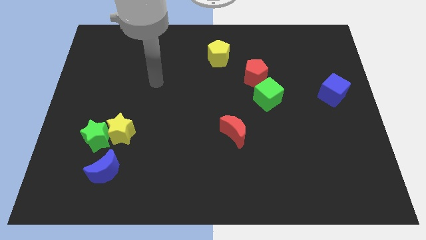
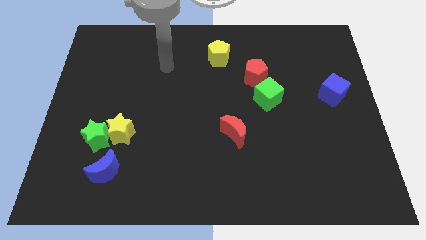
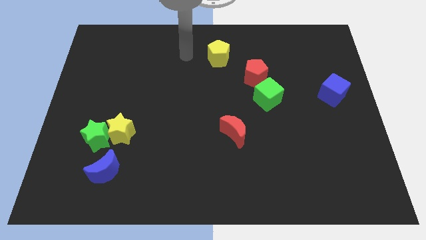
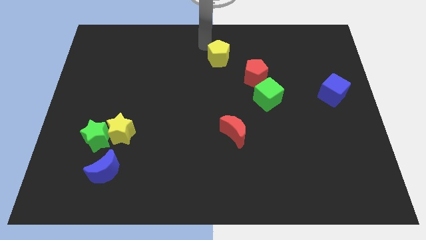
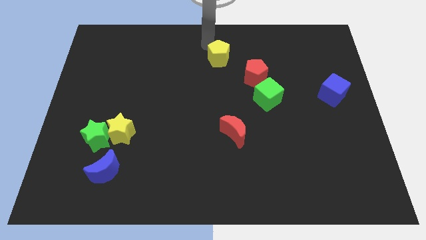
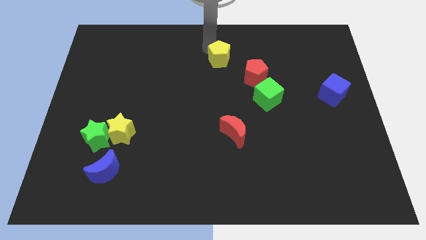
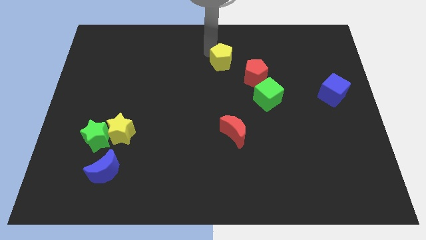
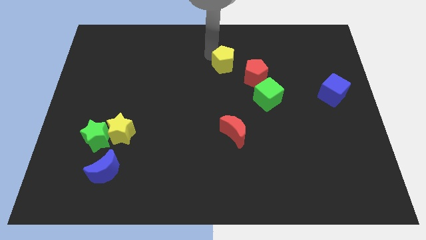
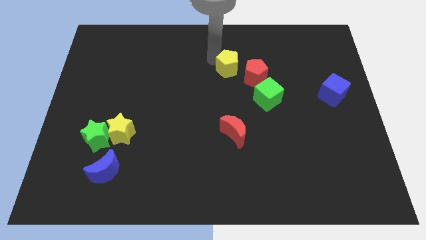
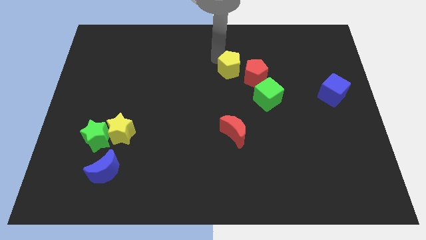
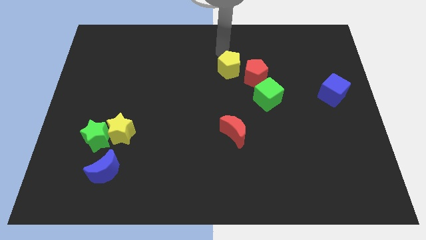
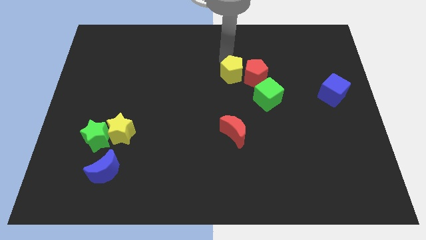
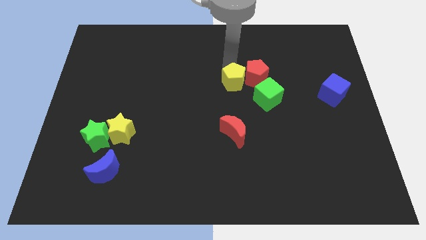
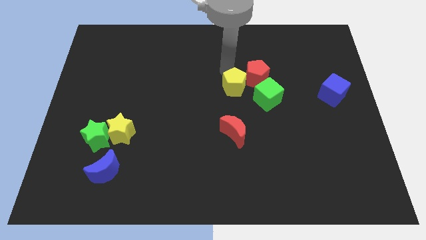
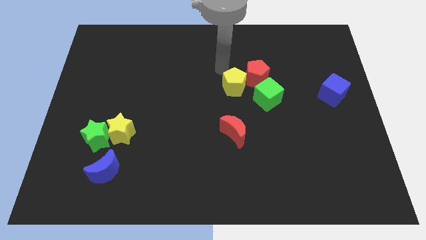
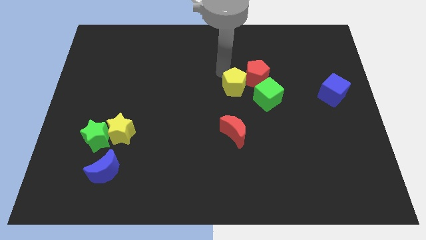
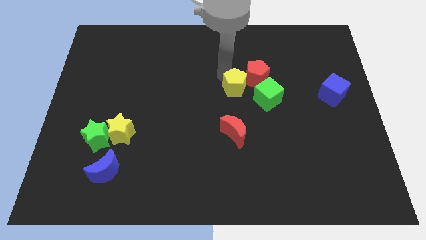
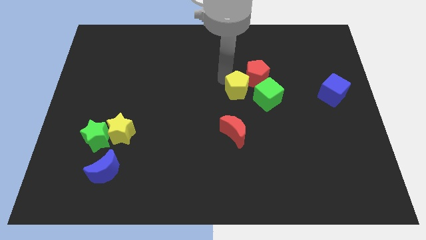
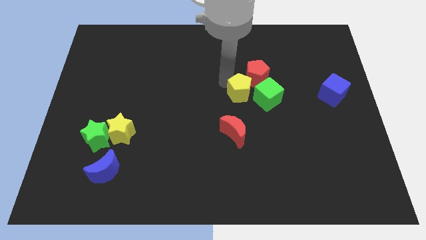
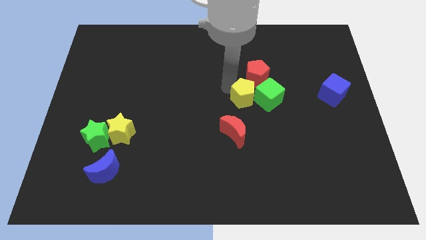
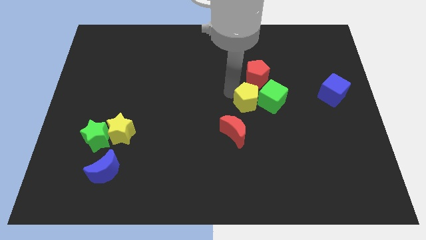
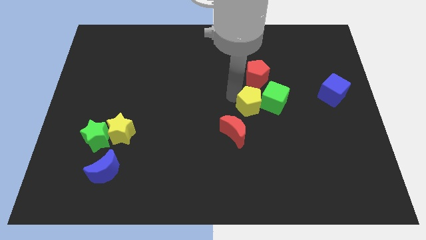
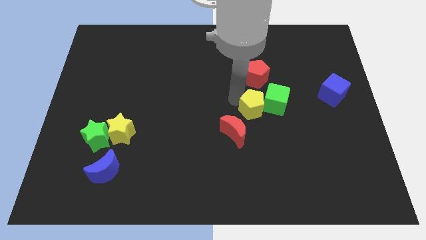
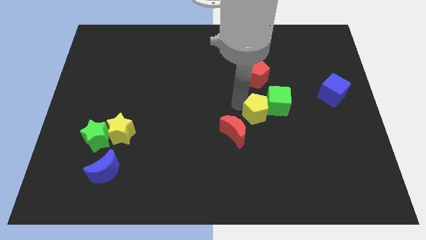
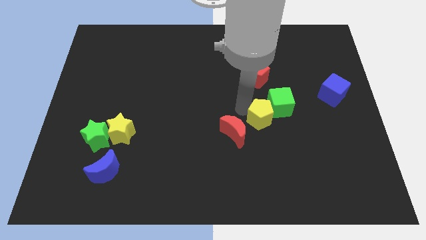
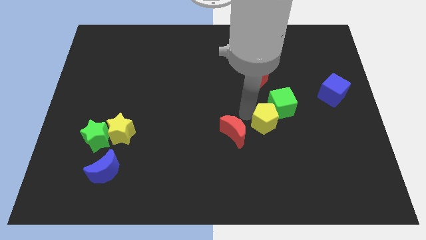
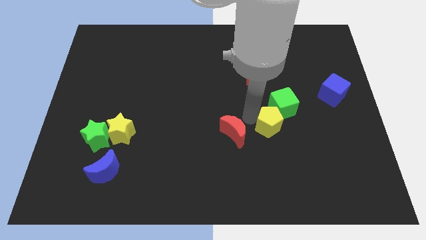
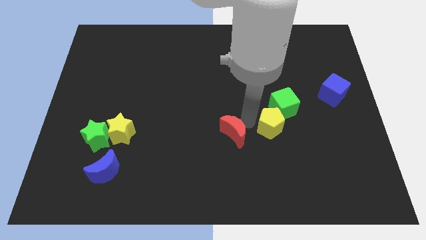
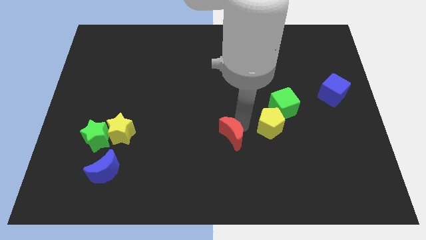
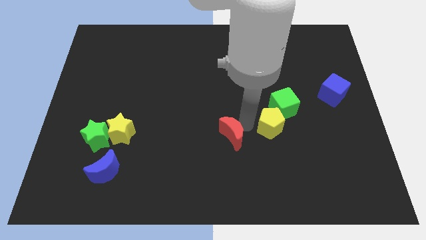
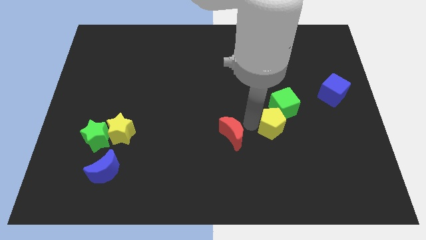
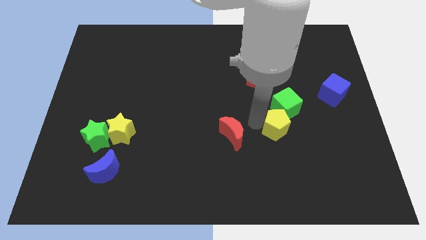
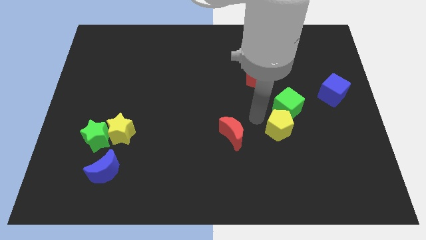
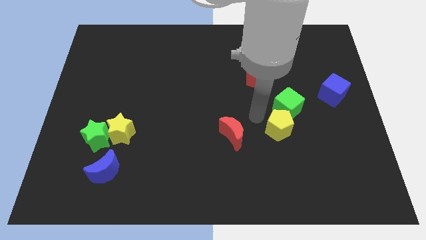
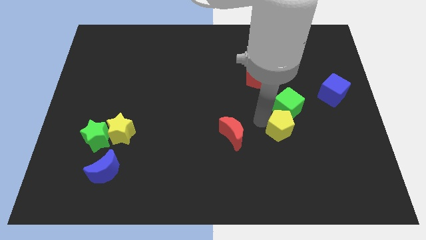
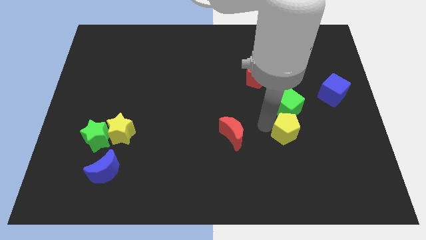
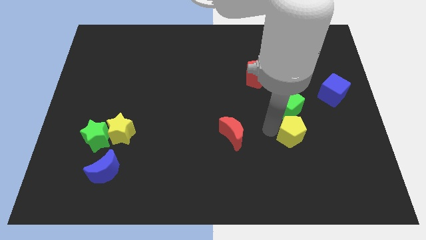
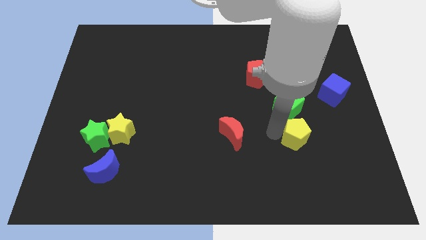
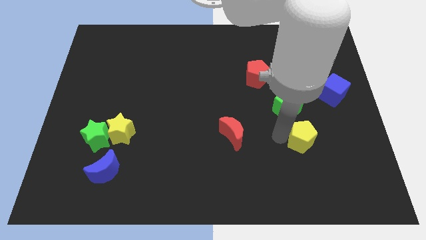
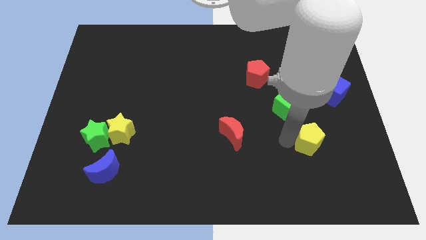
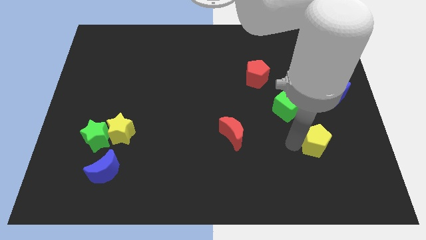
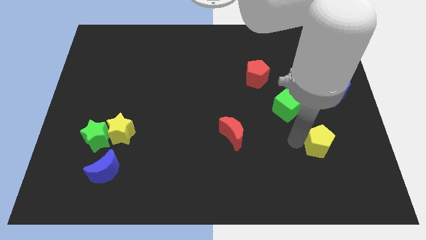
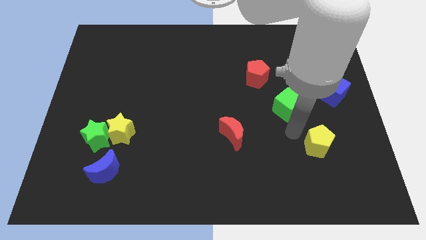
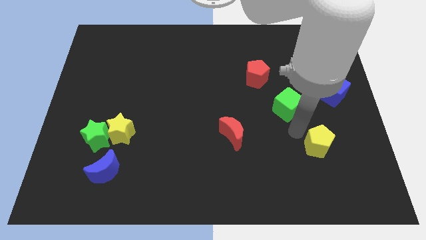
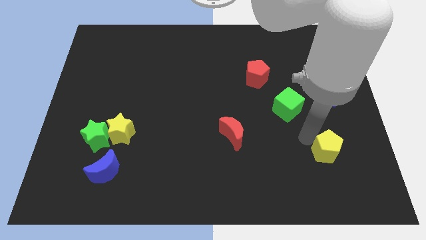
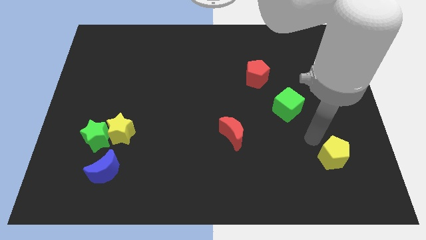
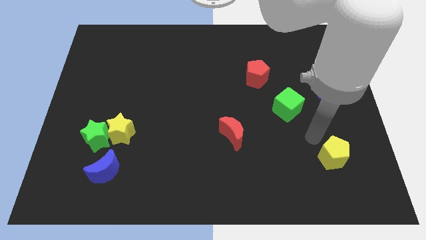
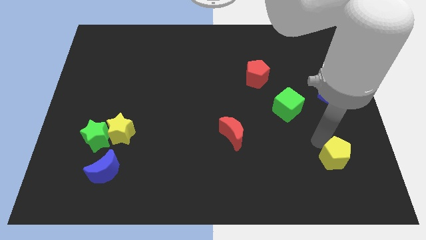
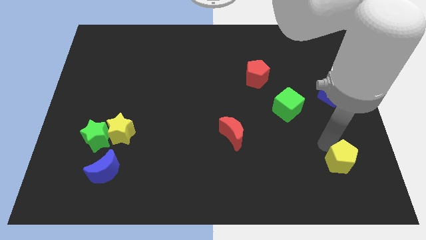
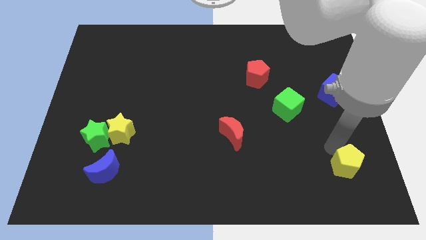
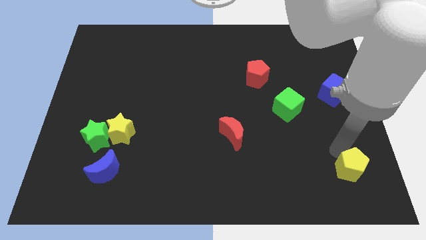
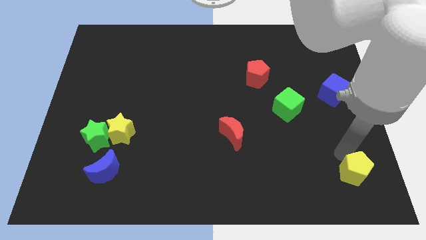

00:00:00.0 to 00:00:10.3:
push the yellow pentagon to the bottom right corner
